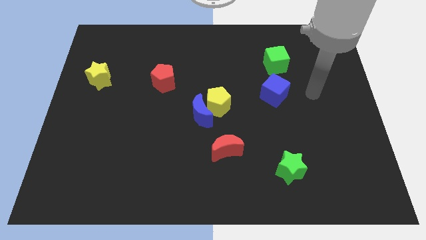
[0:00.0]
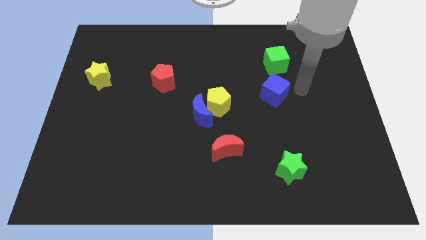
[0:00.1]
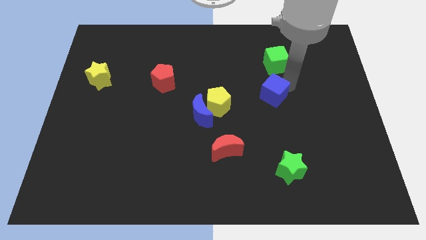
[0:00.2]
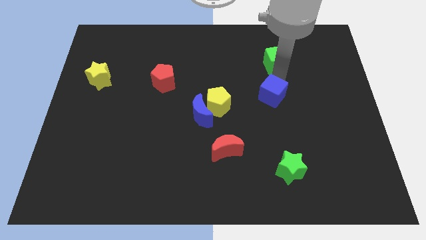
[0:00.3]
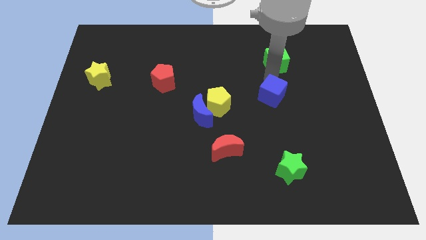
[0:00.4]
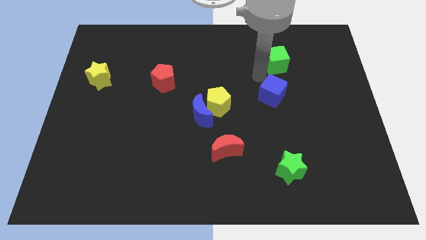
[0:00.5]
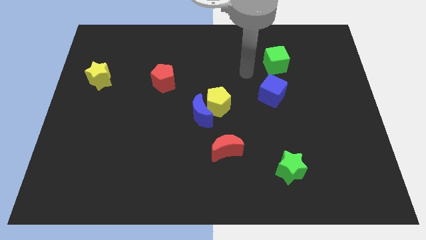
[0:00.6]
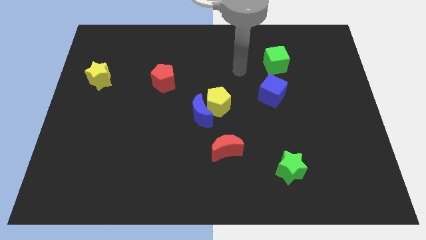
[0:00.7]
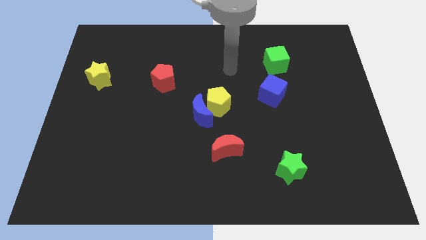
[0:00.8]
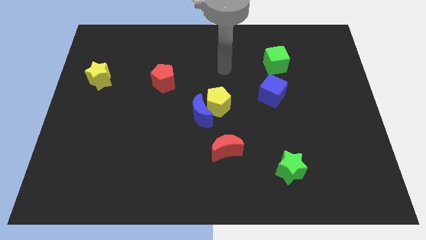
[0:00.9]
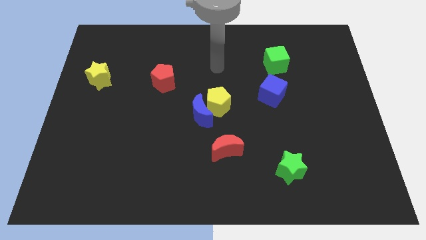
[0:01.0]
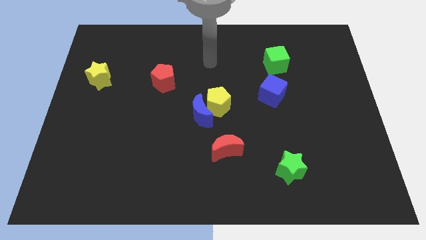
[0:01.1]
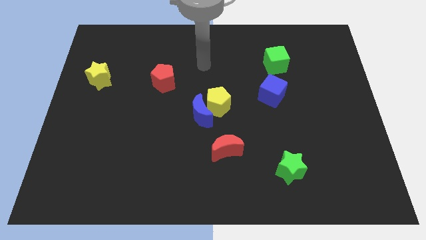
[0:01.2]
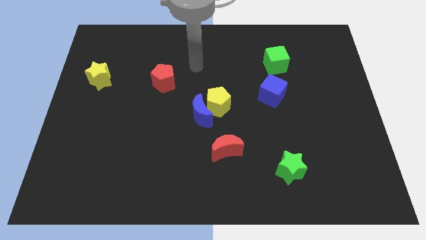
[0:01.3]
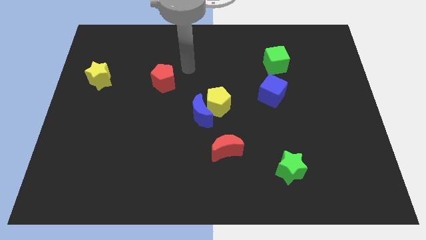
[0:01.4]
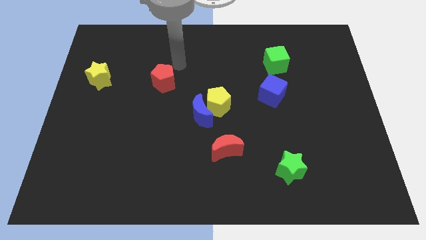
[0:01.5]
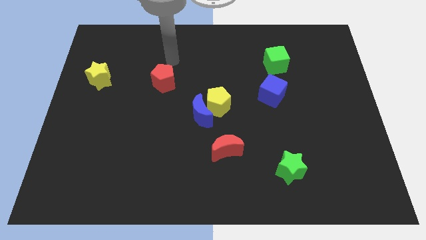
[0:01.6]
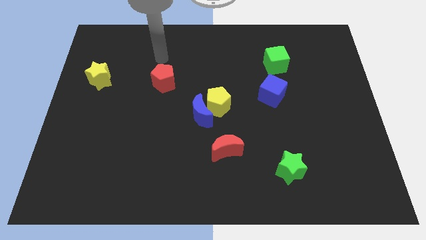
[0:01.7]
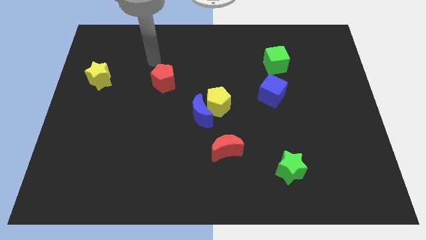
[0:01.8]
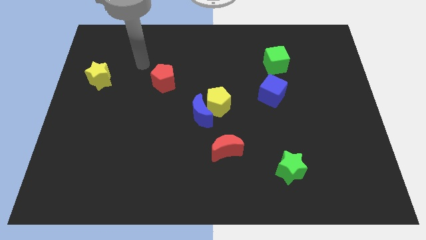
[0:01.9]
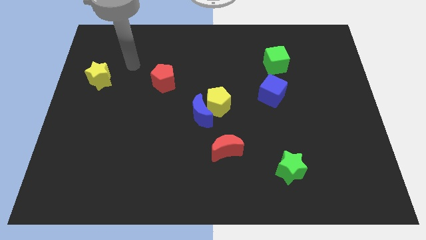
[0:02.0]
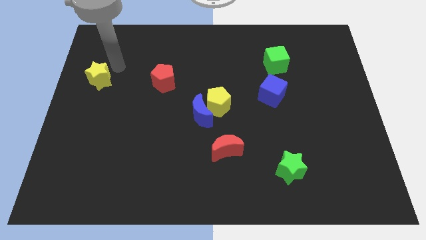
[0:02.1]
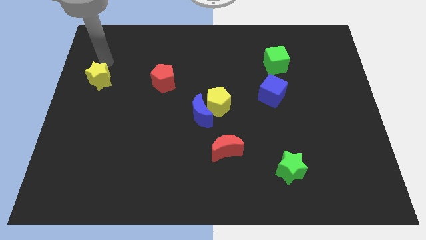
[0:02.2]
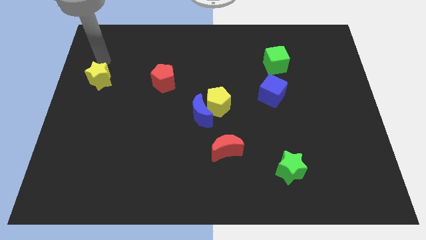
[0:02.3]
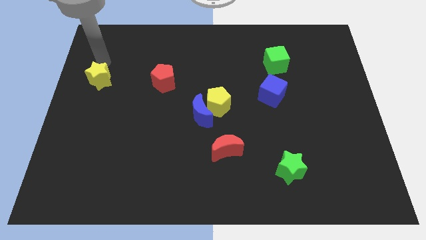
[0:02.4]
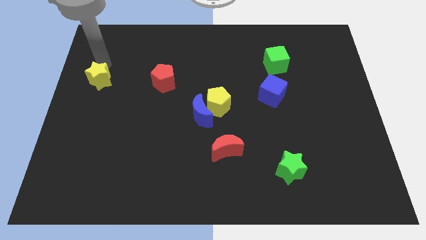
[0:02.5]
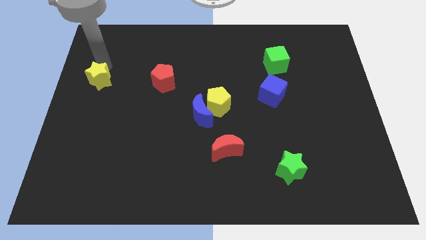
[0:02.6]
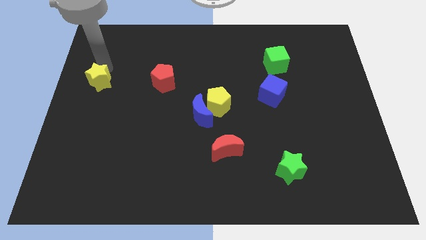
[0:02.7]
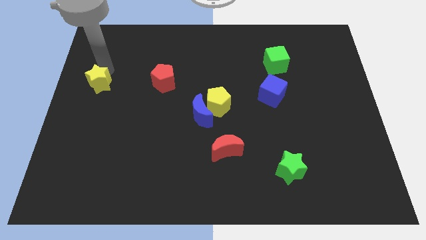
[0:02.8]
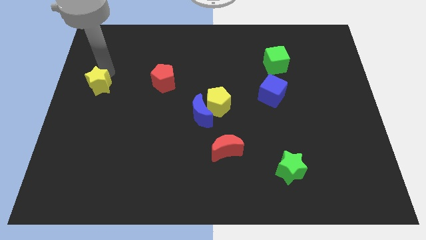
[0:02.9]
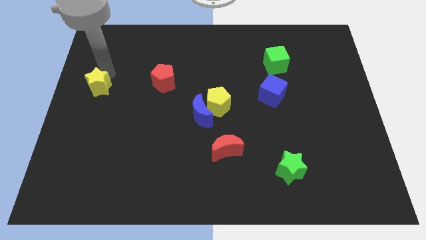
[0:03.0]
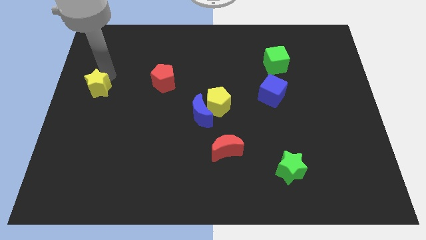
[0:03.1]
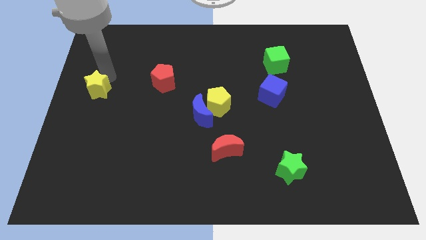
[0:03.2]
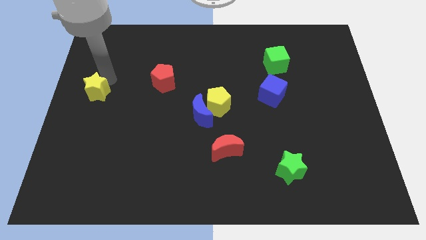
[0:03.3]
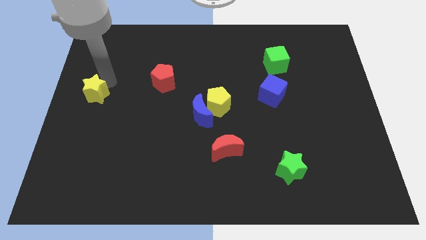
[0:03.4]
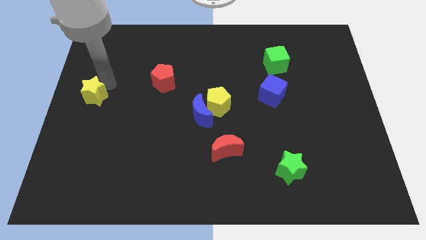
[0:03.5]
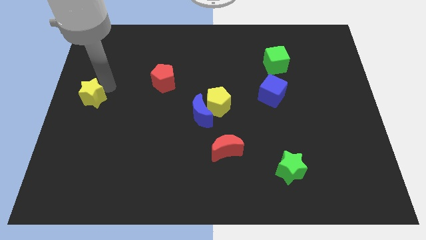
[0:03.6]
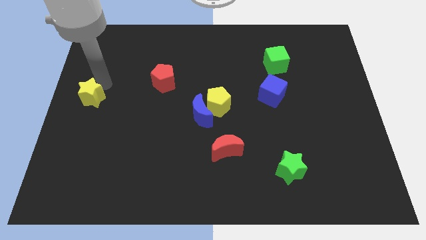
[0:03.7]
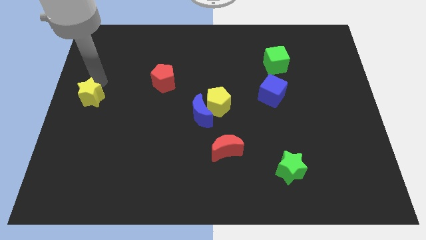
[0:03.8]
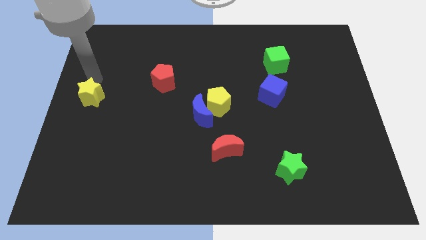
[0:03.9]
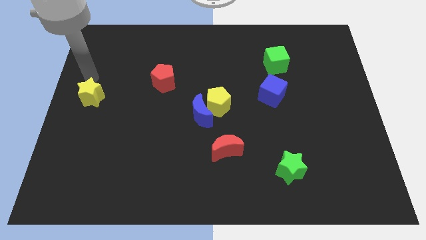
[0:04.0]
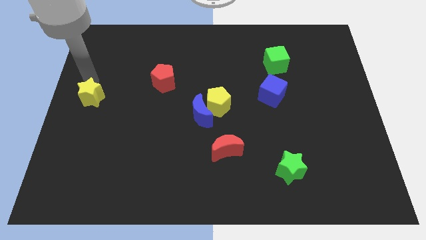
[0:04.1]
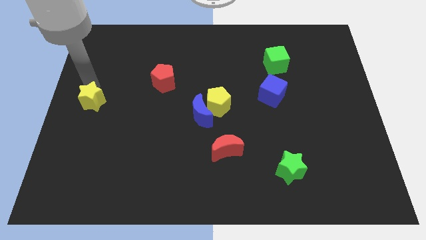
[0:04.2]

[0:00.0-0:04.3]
move the yellow star downwards a bit

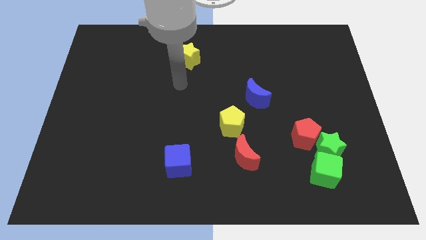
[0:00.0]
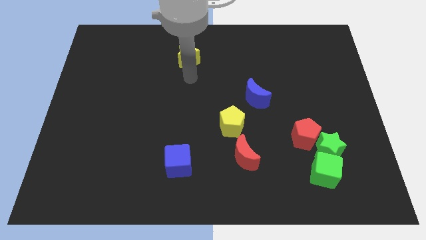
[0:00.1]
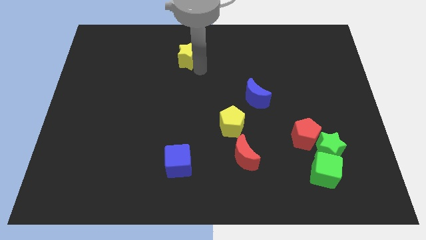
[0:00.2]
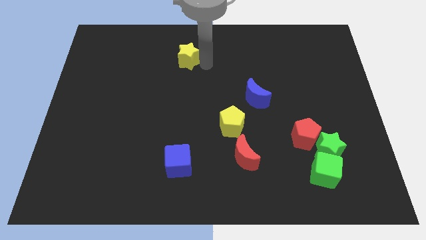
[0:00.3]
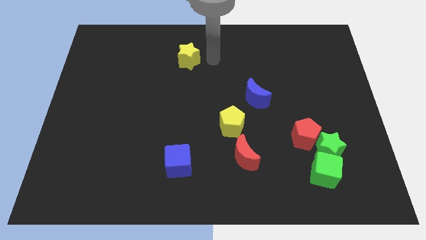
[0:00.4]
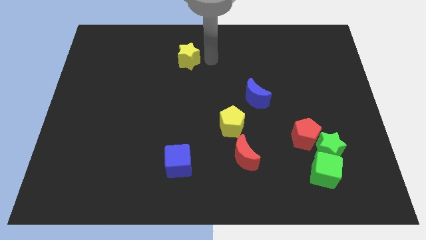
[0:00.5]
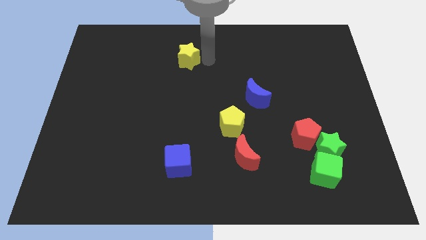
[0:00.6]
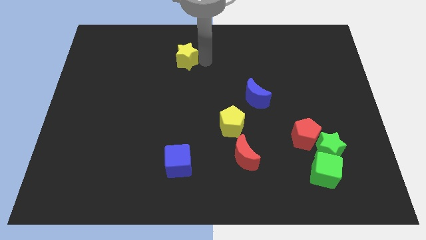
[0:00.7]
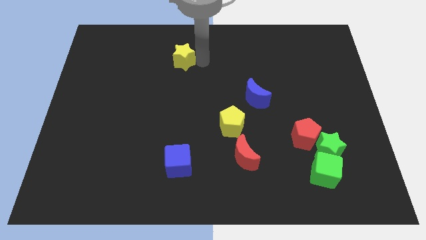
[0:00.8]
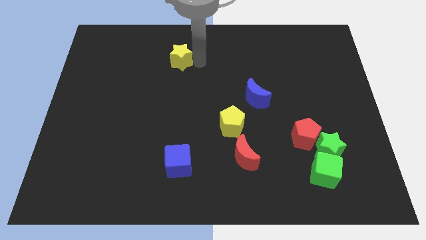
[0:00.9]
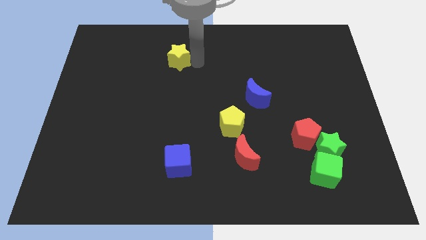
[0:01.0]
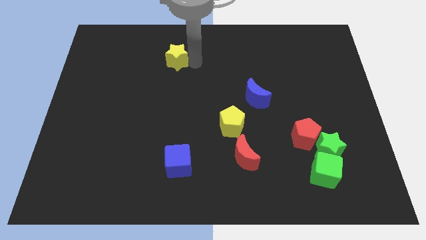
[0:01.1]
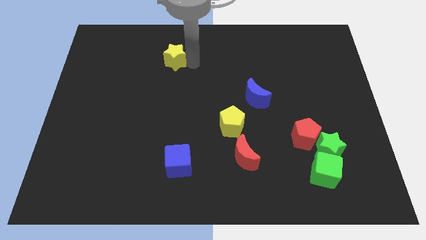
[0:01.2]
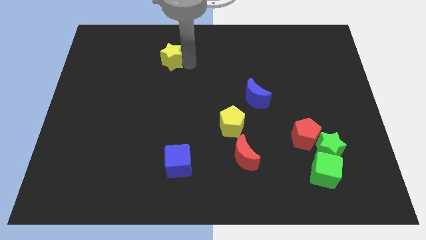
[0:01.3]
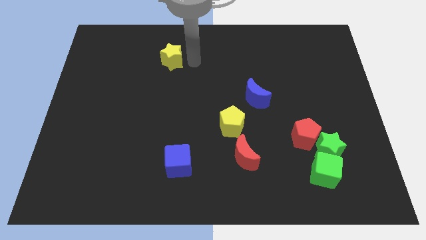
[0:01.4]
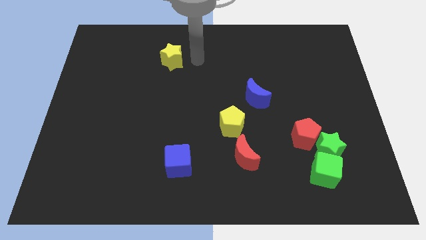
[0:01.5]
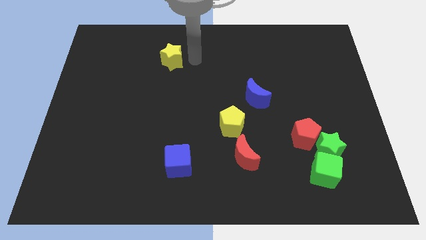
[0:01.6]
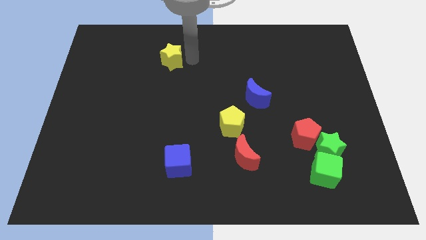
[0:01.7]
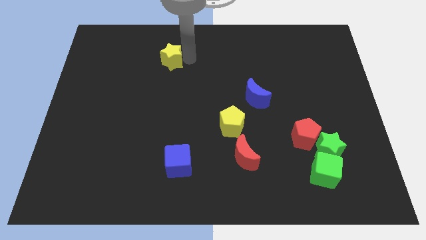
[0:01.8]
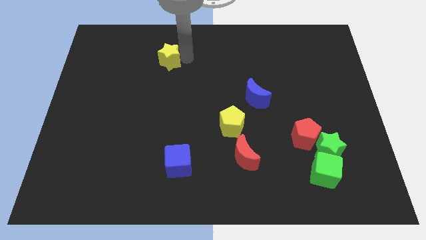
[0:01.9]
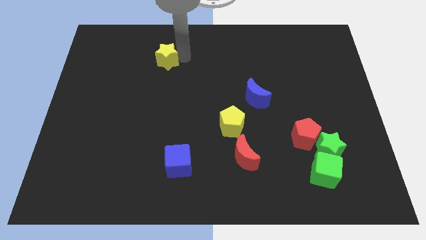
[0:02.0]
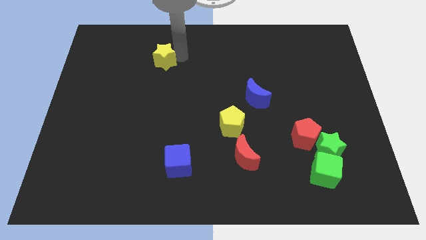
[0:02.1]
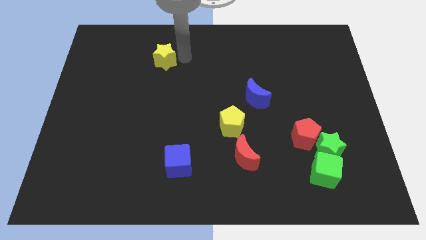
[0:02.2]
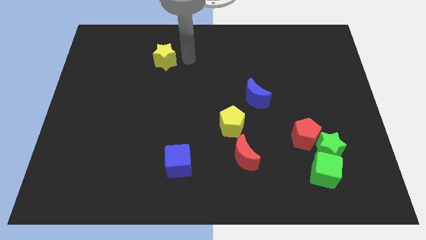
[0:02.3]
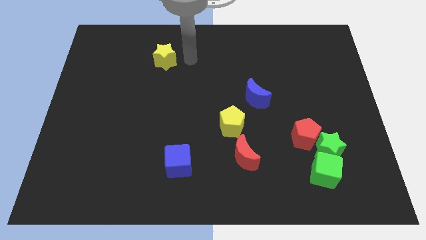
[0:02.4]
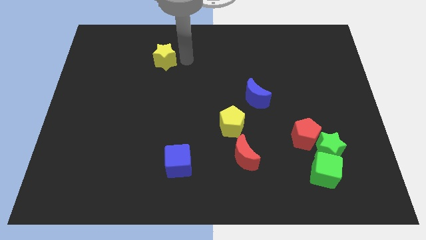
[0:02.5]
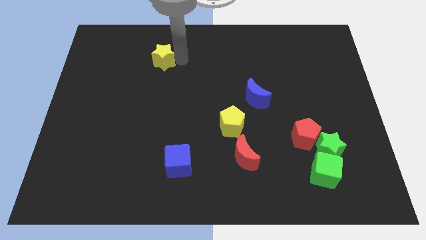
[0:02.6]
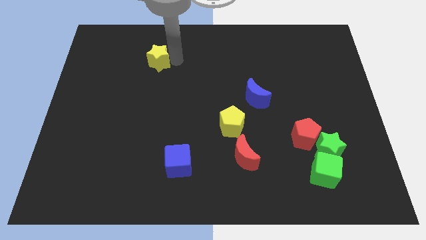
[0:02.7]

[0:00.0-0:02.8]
slightly move the yellow star to the left

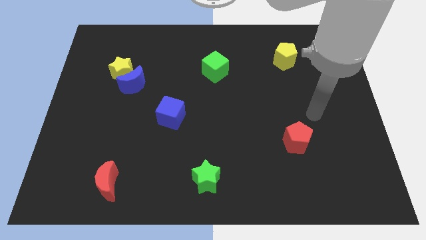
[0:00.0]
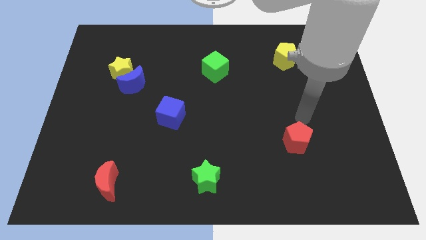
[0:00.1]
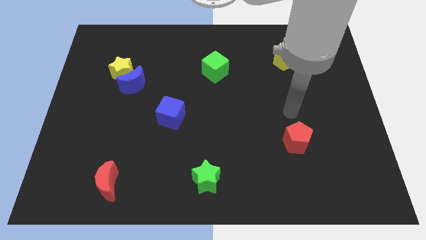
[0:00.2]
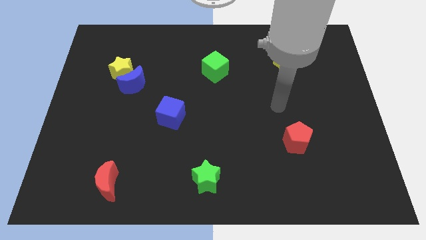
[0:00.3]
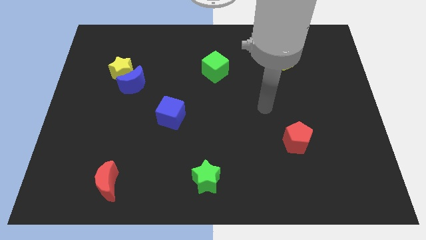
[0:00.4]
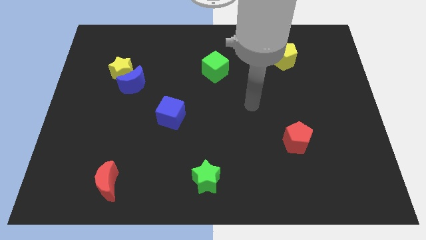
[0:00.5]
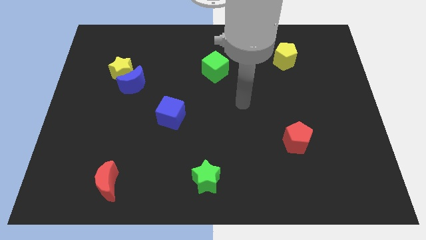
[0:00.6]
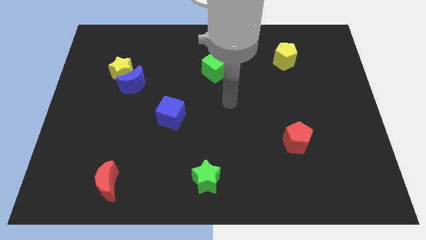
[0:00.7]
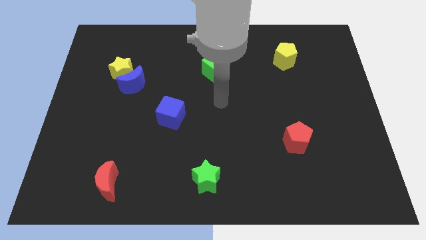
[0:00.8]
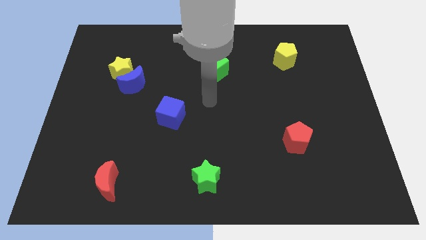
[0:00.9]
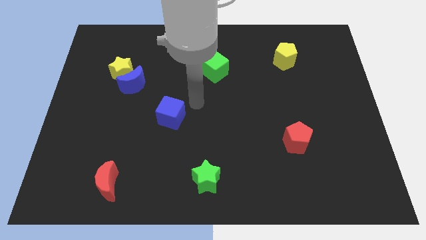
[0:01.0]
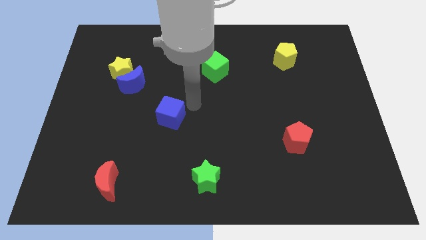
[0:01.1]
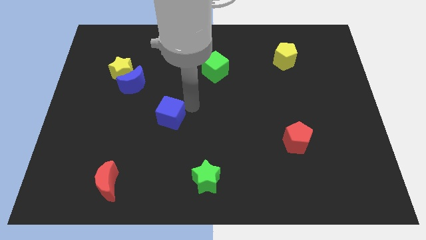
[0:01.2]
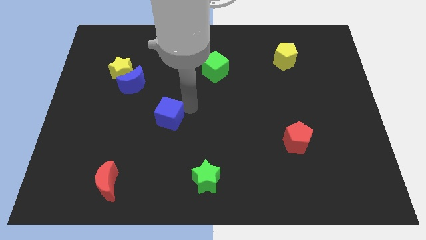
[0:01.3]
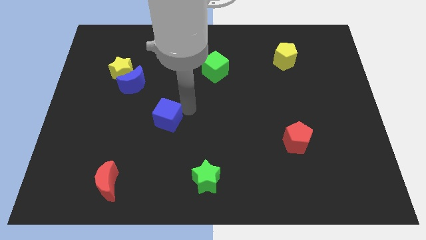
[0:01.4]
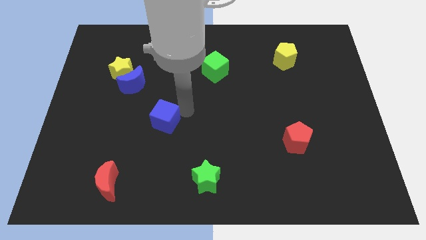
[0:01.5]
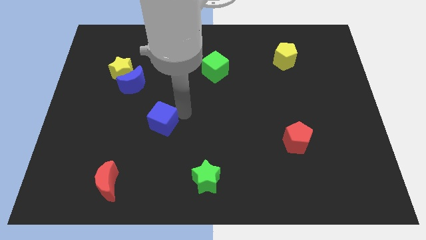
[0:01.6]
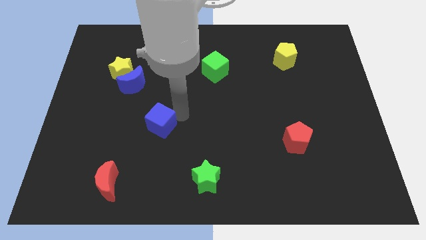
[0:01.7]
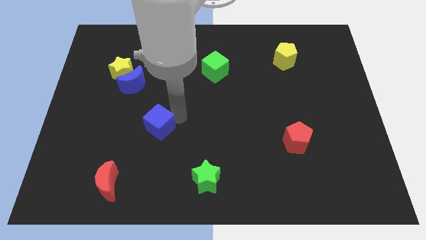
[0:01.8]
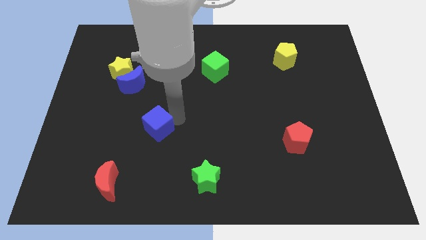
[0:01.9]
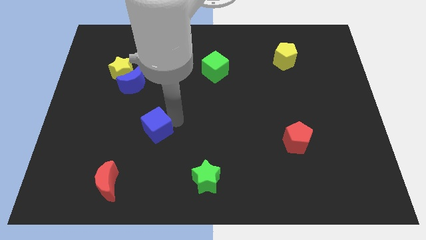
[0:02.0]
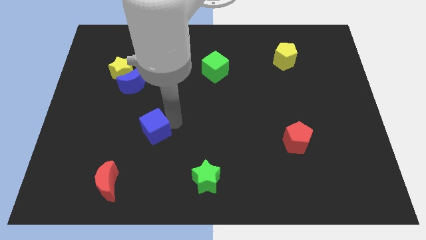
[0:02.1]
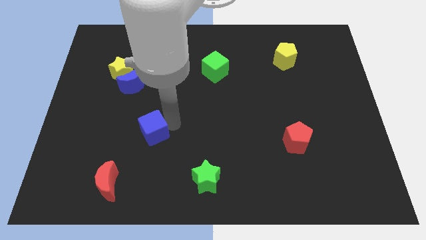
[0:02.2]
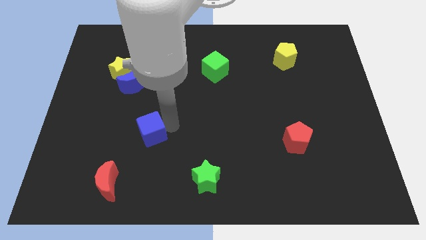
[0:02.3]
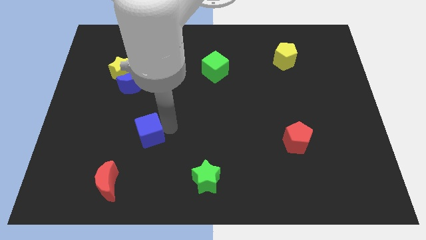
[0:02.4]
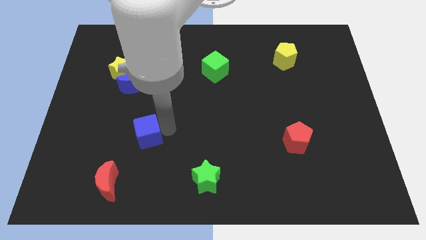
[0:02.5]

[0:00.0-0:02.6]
slightly push the blue cube down and then to the left
